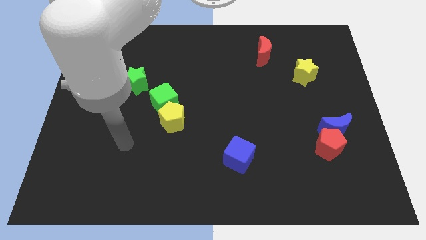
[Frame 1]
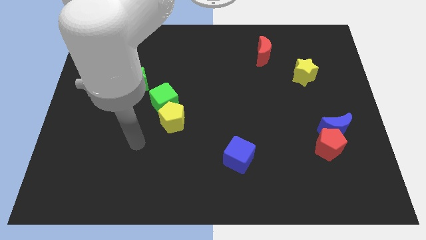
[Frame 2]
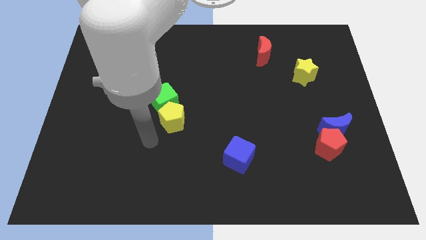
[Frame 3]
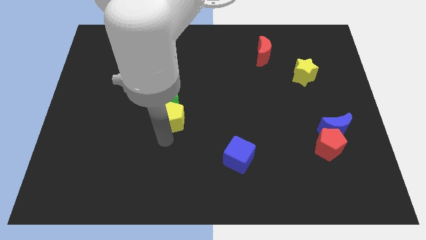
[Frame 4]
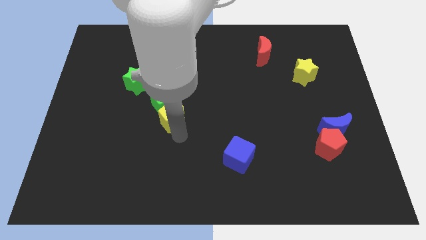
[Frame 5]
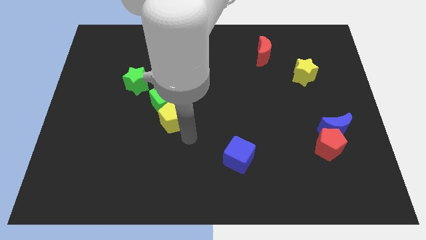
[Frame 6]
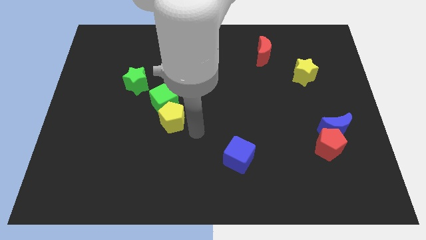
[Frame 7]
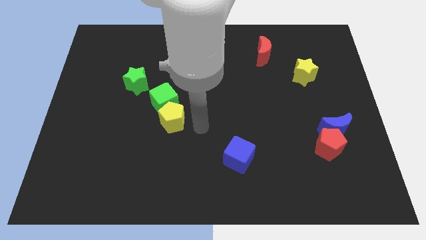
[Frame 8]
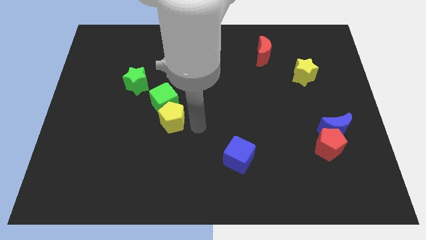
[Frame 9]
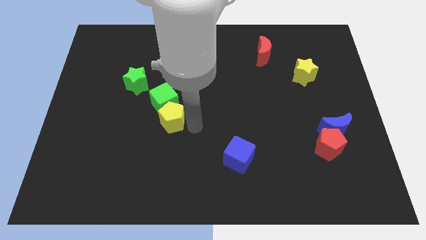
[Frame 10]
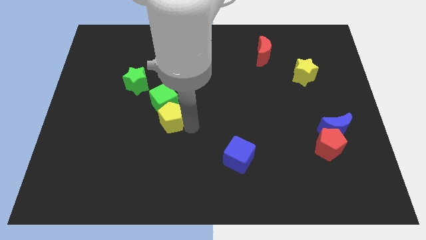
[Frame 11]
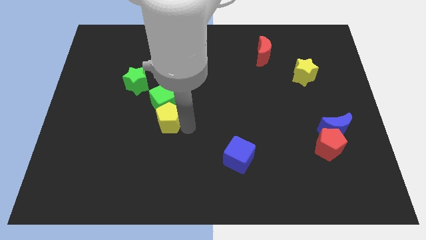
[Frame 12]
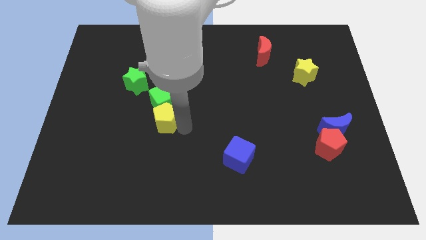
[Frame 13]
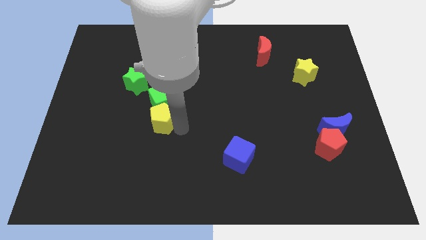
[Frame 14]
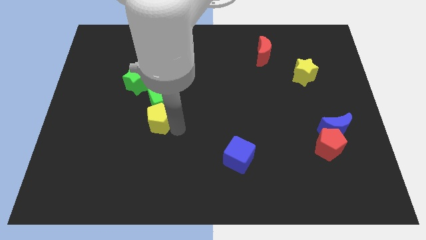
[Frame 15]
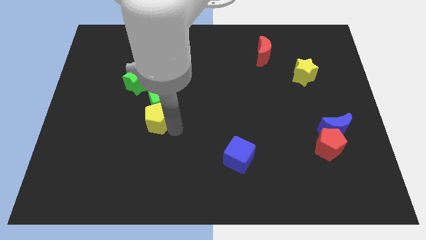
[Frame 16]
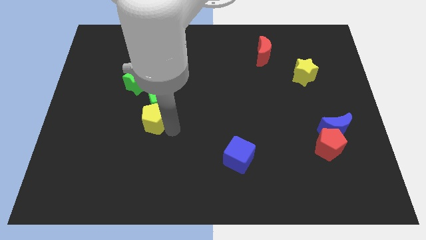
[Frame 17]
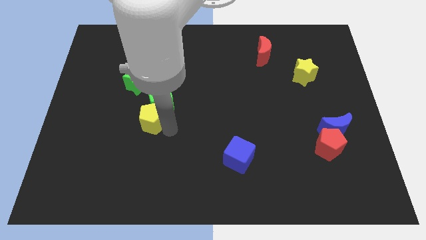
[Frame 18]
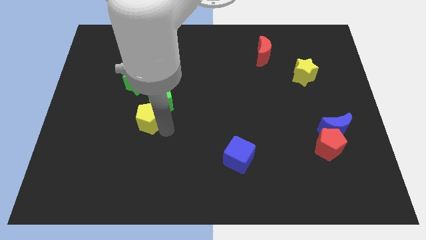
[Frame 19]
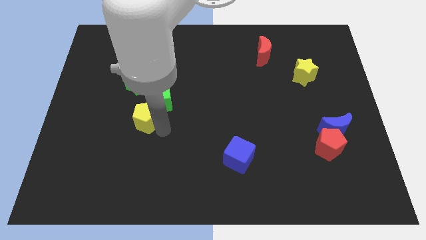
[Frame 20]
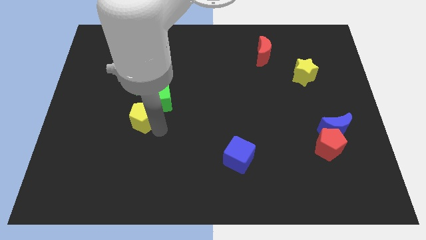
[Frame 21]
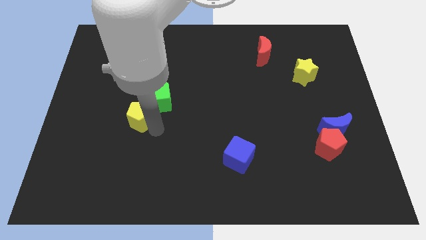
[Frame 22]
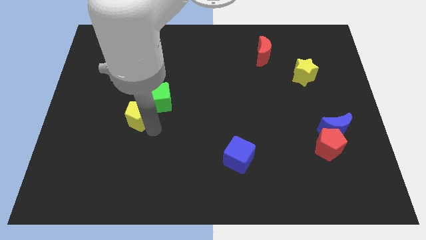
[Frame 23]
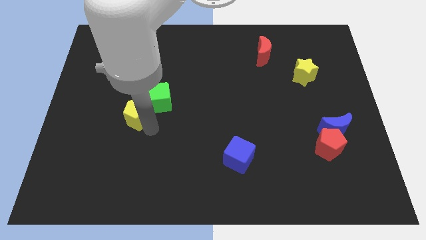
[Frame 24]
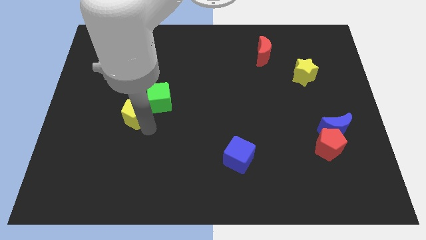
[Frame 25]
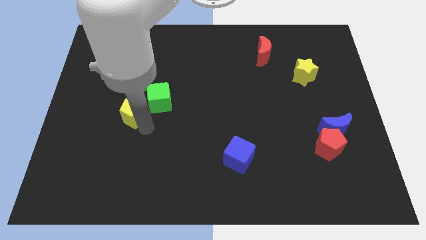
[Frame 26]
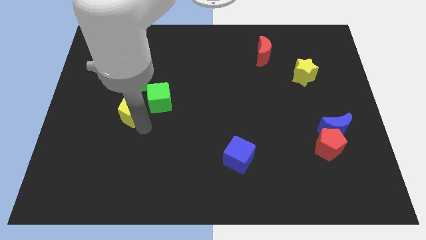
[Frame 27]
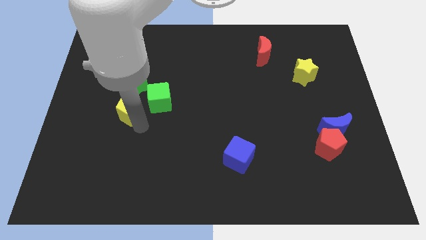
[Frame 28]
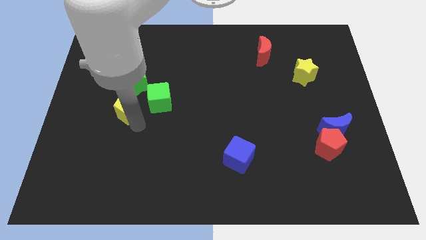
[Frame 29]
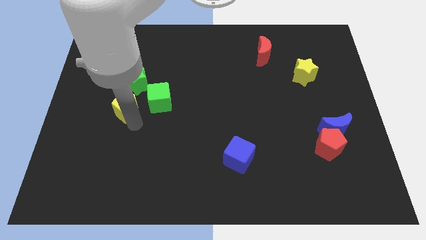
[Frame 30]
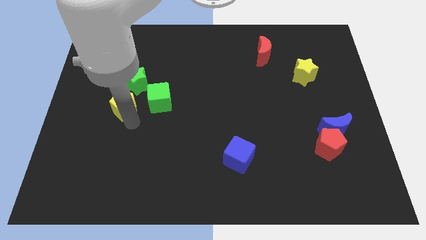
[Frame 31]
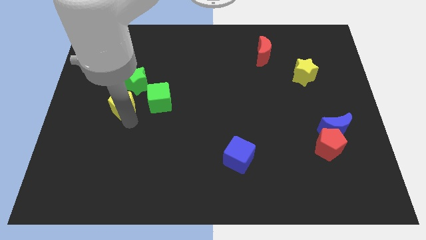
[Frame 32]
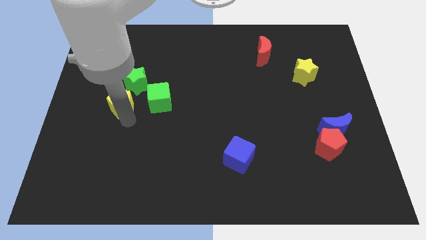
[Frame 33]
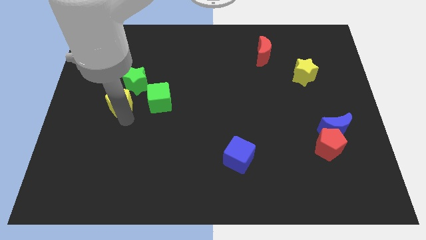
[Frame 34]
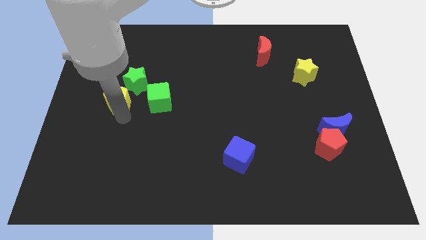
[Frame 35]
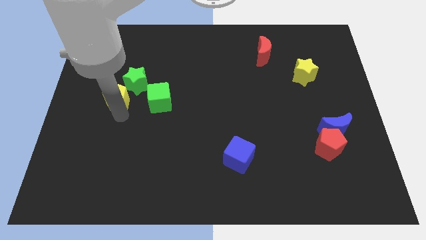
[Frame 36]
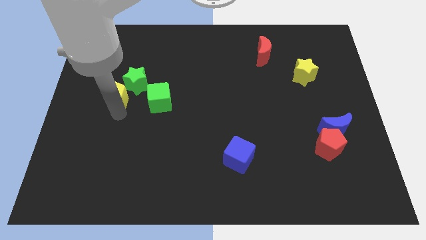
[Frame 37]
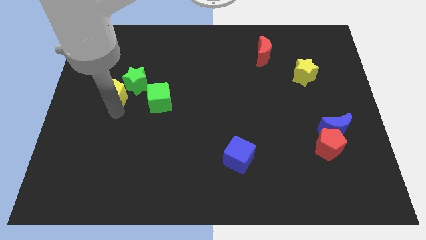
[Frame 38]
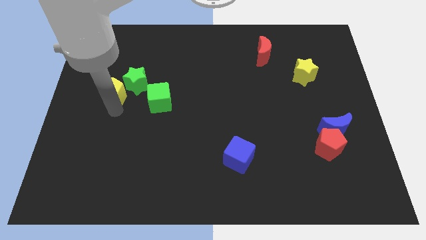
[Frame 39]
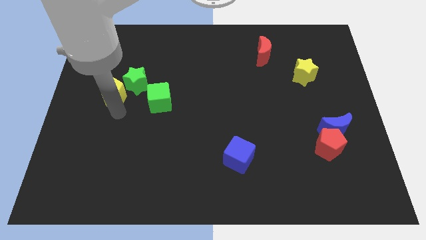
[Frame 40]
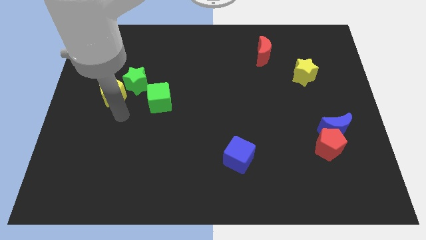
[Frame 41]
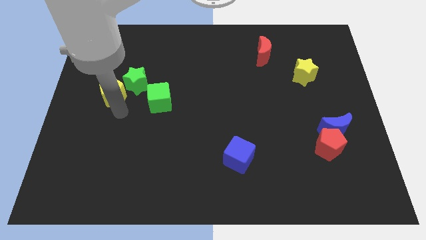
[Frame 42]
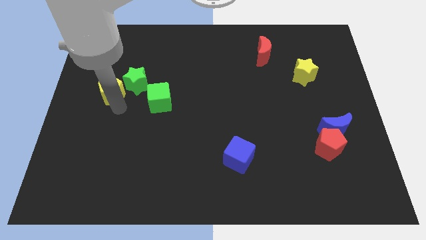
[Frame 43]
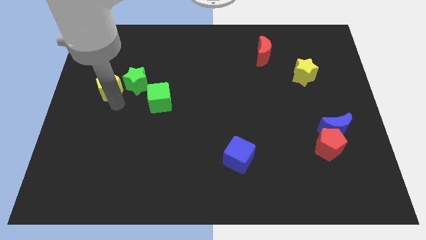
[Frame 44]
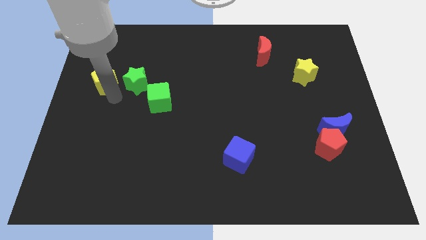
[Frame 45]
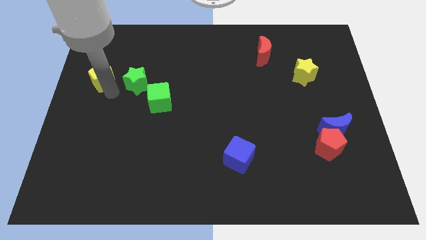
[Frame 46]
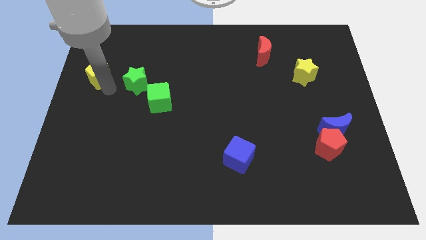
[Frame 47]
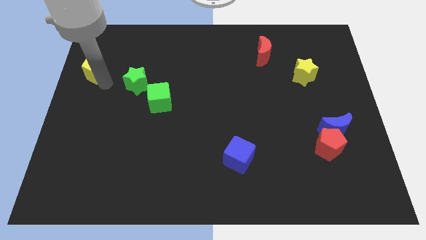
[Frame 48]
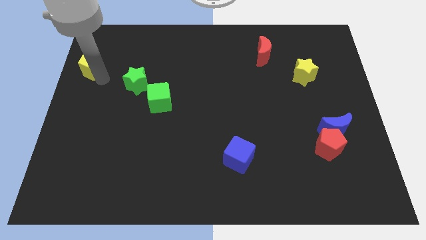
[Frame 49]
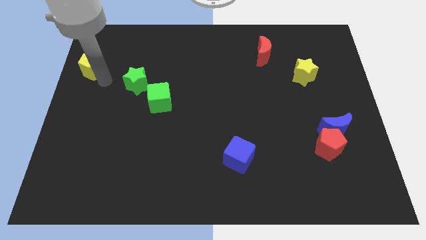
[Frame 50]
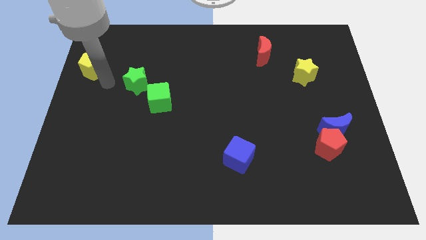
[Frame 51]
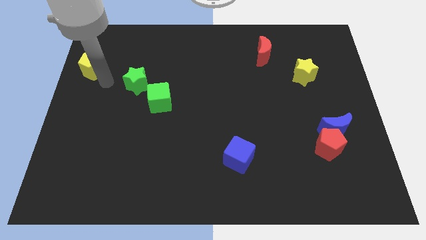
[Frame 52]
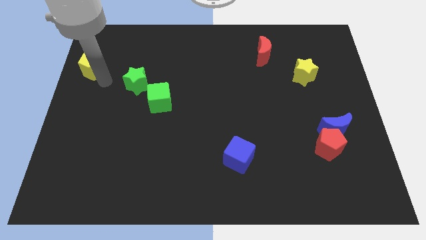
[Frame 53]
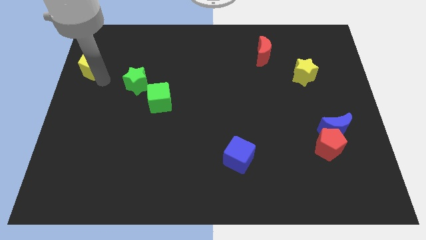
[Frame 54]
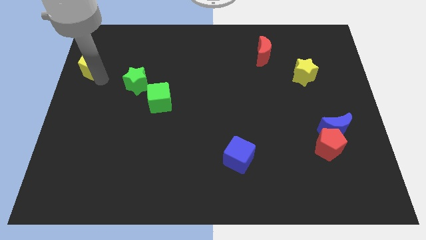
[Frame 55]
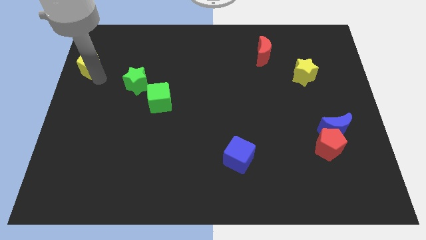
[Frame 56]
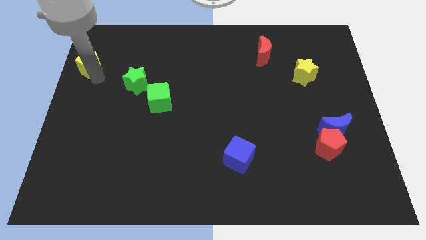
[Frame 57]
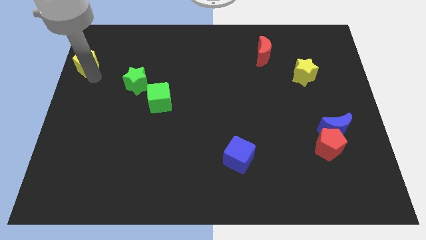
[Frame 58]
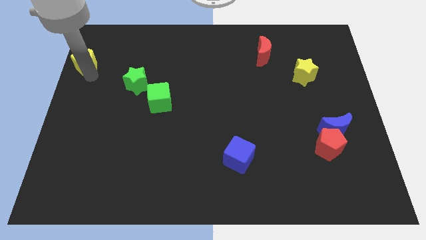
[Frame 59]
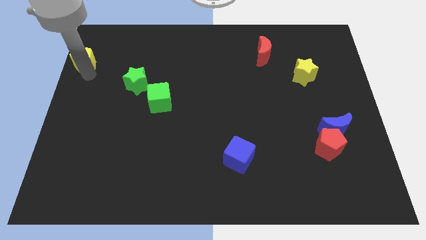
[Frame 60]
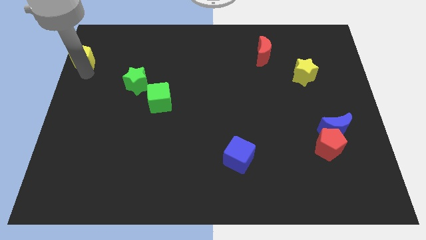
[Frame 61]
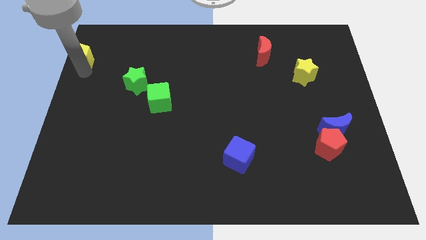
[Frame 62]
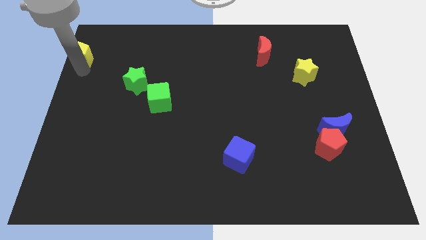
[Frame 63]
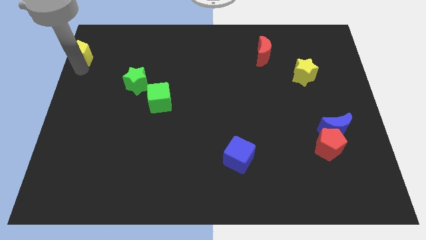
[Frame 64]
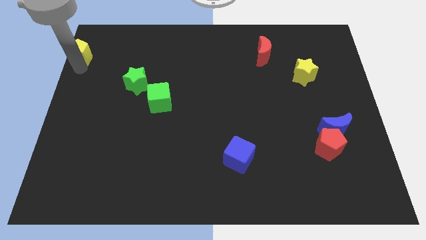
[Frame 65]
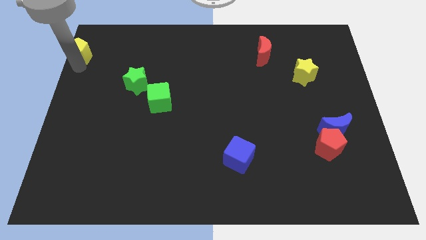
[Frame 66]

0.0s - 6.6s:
move the yellow pentagon to the upper left corner
